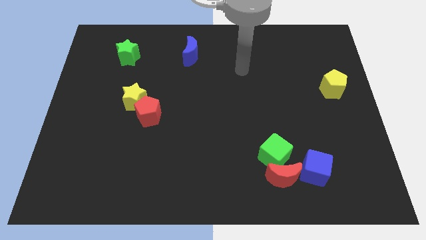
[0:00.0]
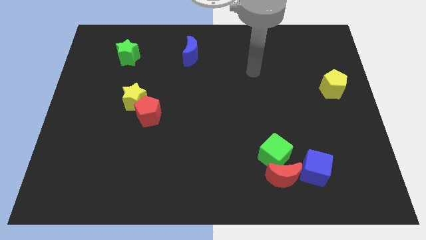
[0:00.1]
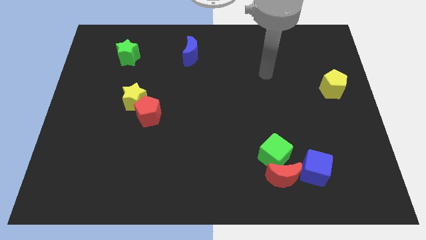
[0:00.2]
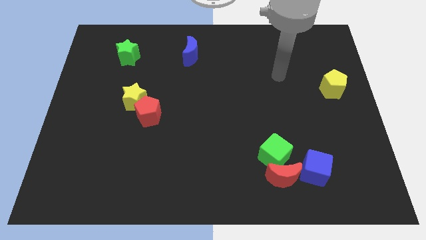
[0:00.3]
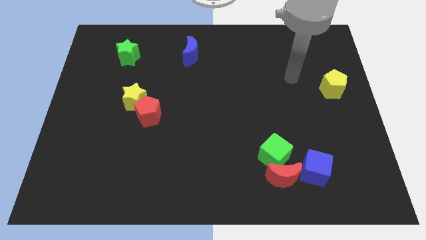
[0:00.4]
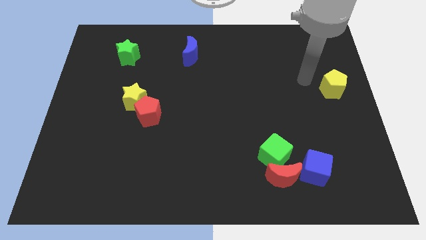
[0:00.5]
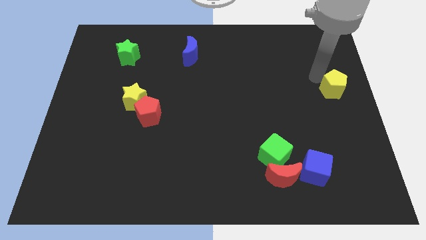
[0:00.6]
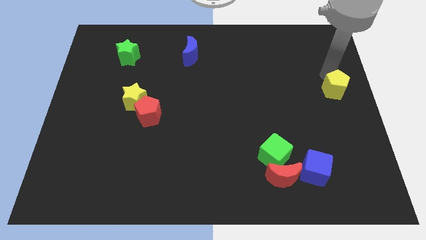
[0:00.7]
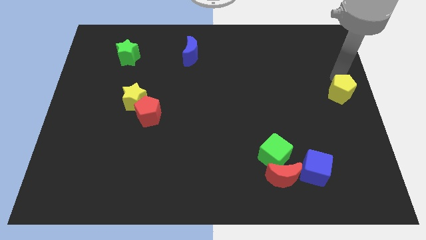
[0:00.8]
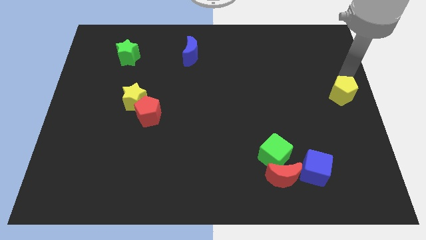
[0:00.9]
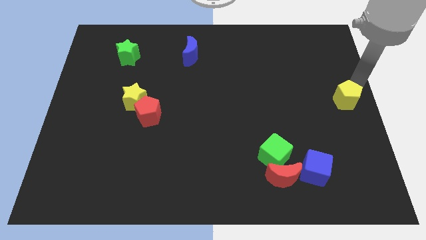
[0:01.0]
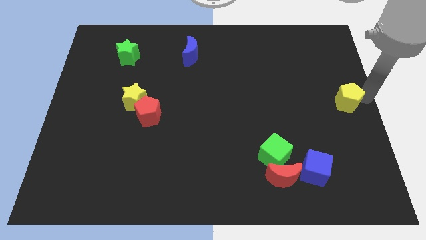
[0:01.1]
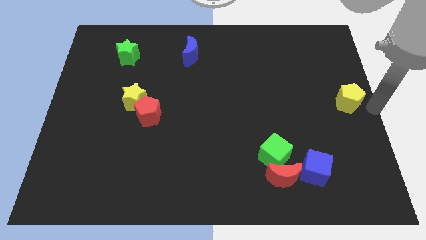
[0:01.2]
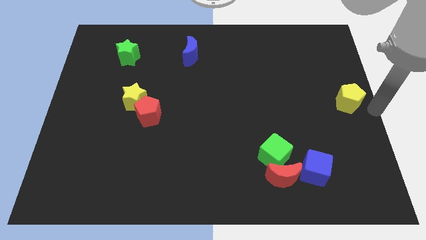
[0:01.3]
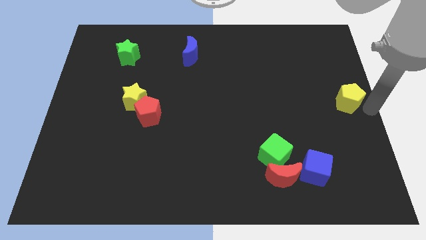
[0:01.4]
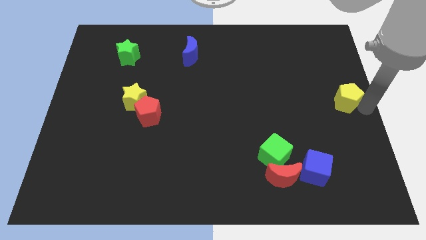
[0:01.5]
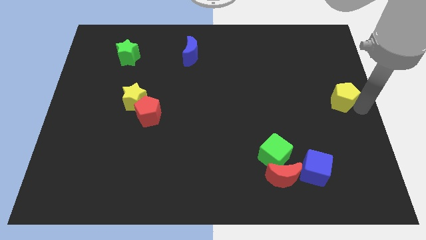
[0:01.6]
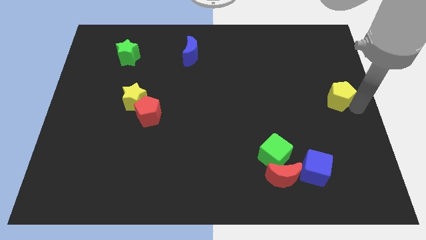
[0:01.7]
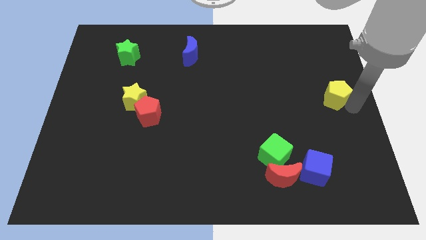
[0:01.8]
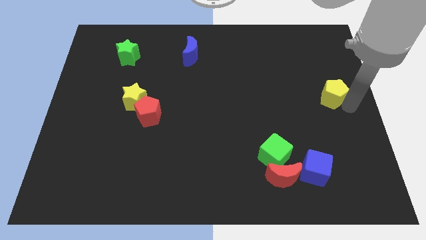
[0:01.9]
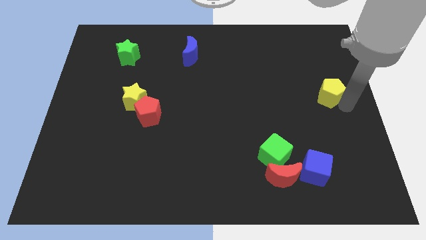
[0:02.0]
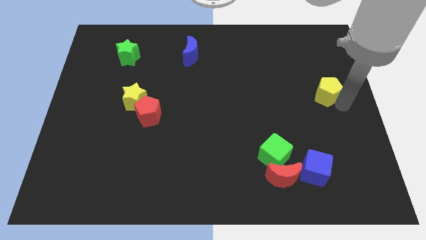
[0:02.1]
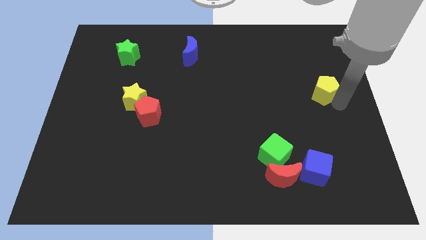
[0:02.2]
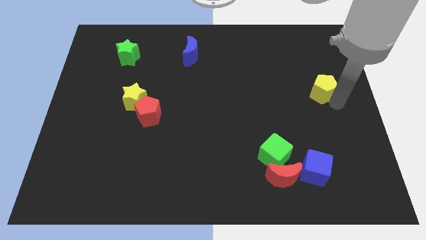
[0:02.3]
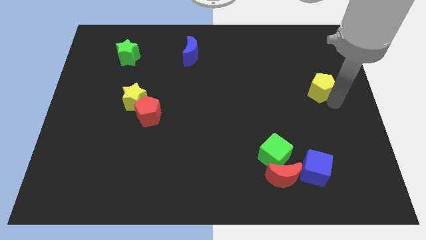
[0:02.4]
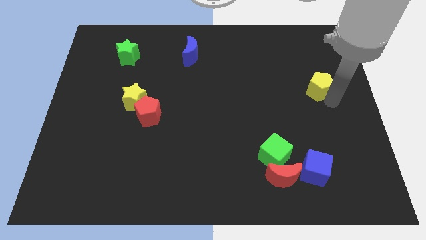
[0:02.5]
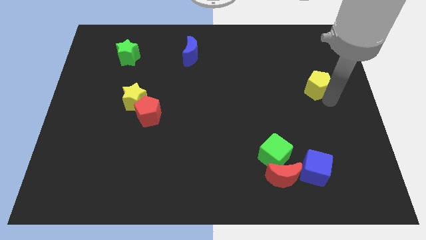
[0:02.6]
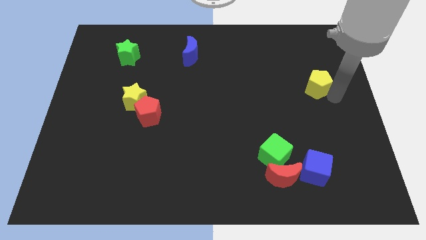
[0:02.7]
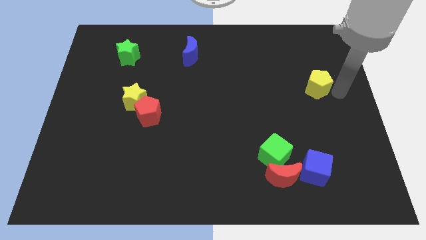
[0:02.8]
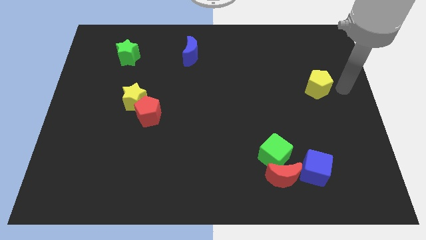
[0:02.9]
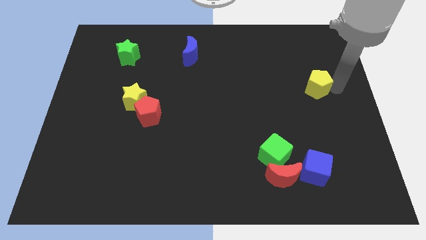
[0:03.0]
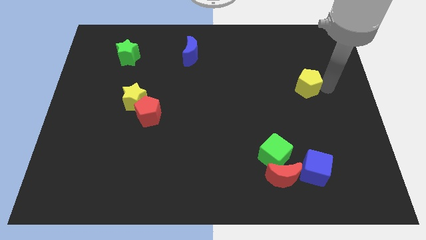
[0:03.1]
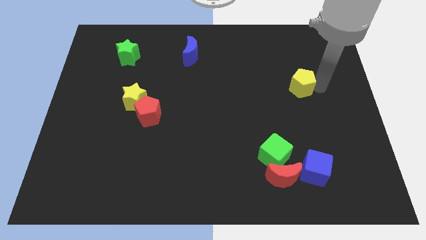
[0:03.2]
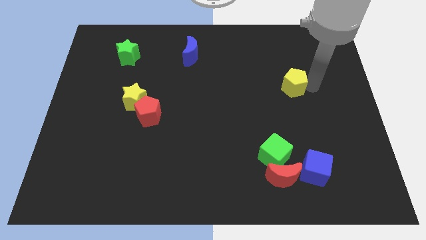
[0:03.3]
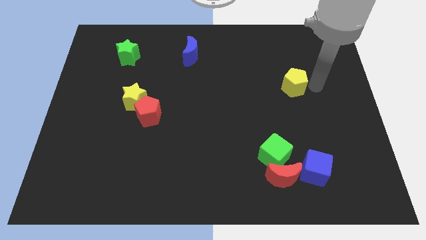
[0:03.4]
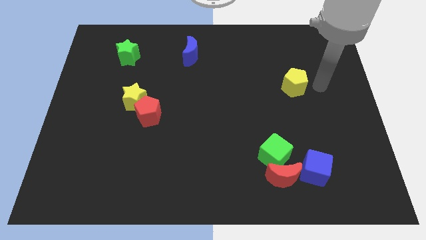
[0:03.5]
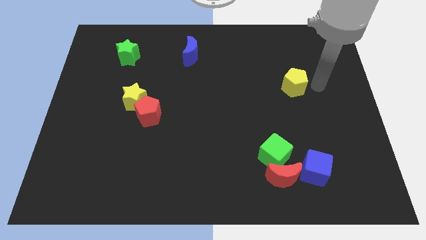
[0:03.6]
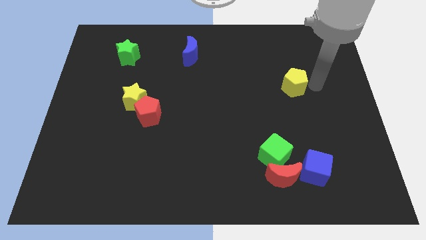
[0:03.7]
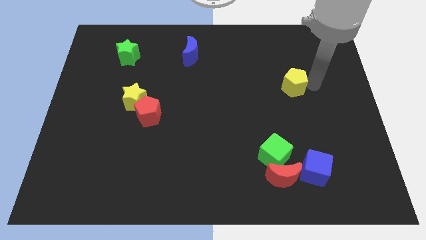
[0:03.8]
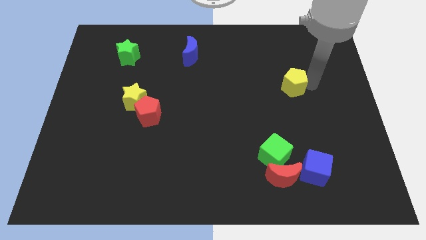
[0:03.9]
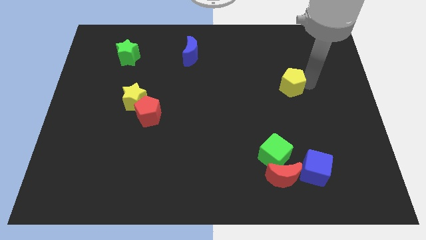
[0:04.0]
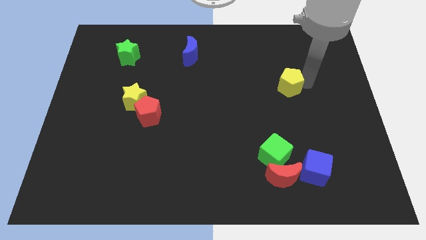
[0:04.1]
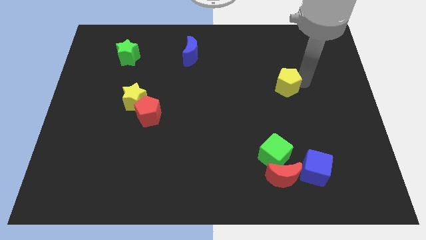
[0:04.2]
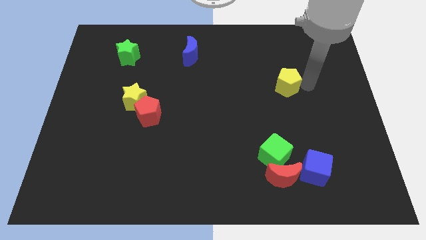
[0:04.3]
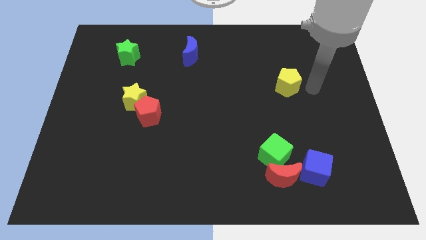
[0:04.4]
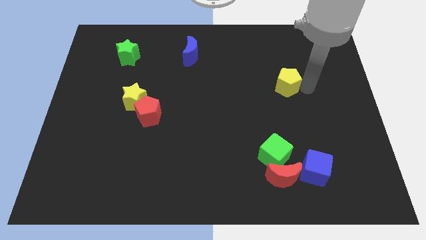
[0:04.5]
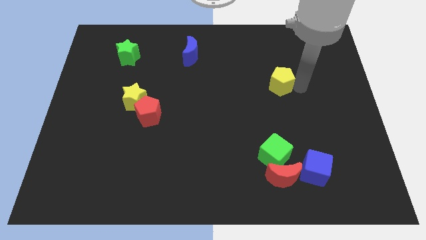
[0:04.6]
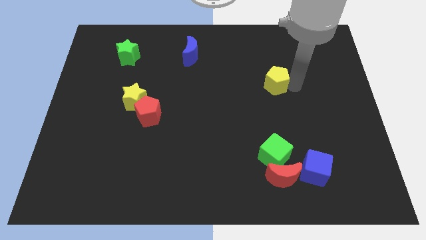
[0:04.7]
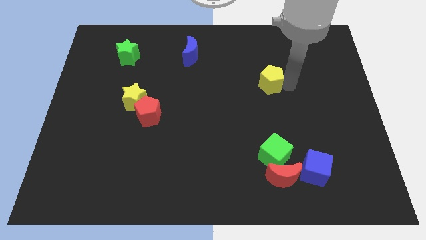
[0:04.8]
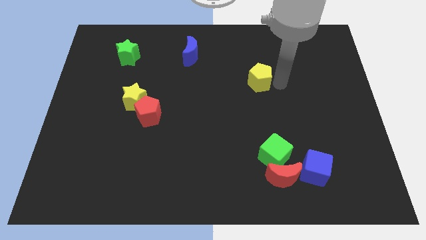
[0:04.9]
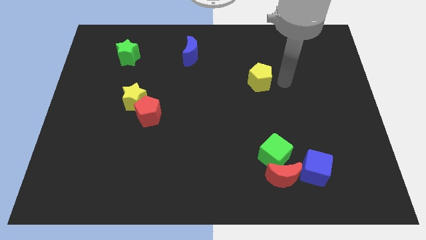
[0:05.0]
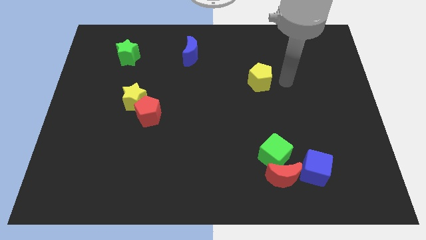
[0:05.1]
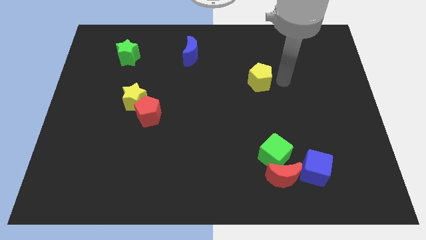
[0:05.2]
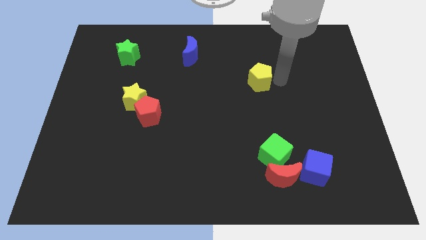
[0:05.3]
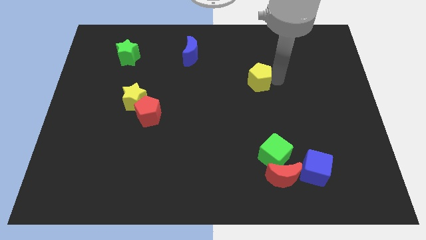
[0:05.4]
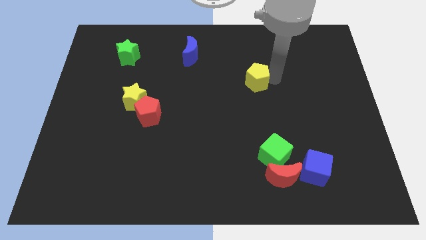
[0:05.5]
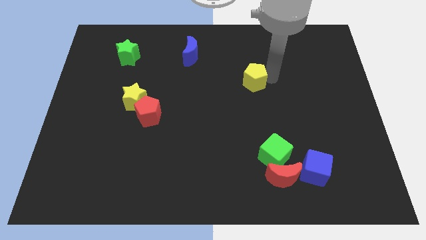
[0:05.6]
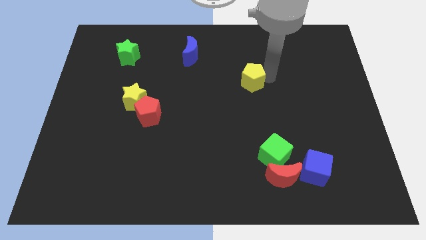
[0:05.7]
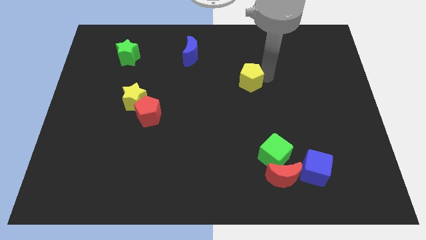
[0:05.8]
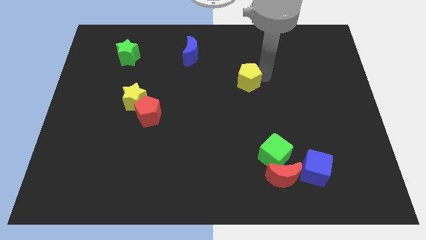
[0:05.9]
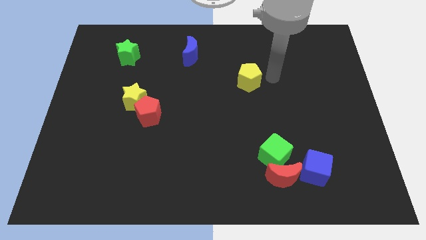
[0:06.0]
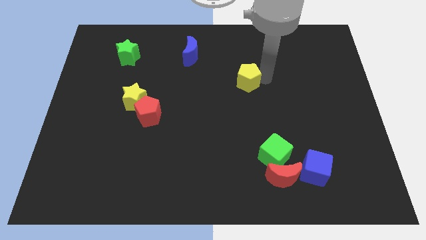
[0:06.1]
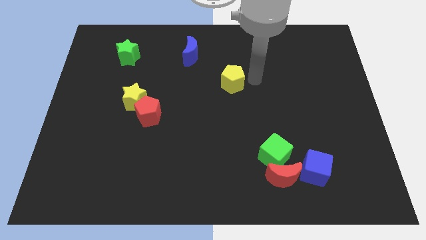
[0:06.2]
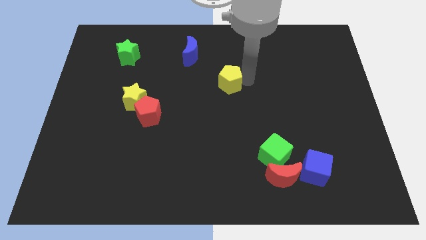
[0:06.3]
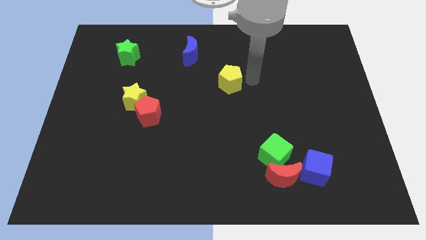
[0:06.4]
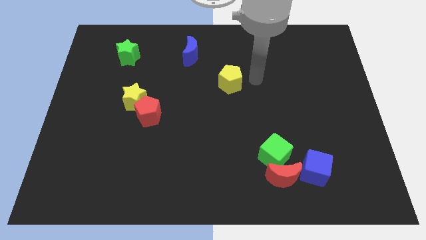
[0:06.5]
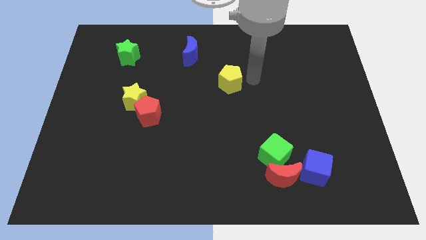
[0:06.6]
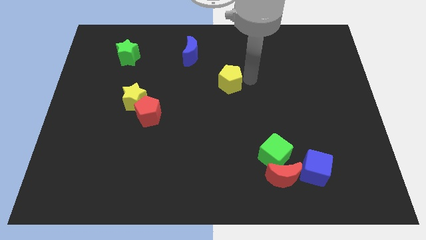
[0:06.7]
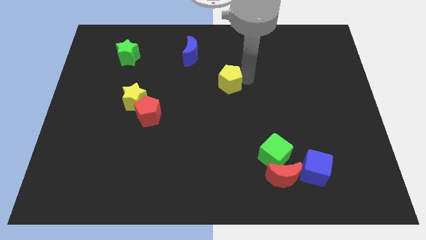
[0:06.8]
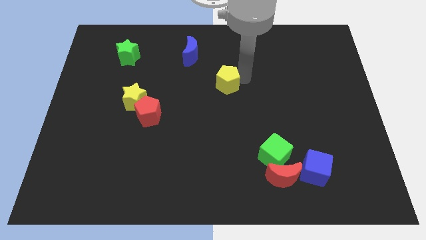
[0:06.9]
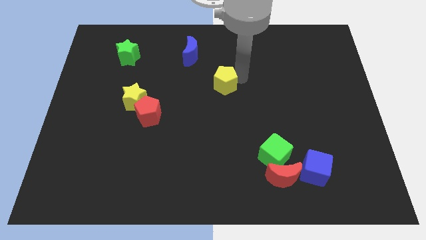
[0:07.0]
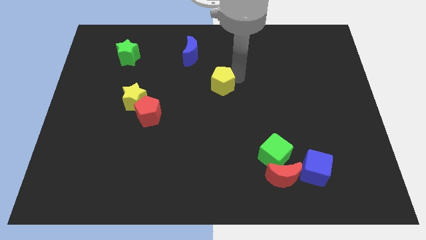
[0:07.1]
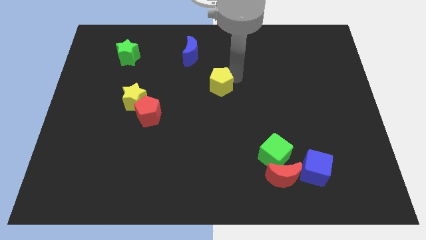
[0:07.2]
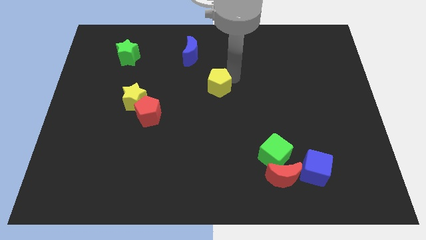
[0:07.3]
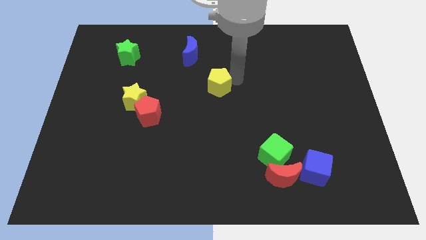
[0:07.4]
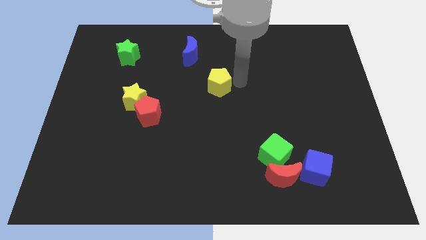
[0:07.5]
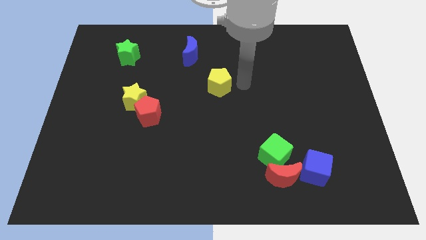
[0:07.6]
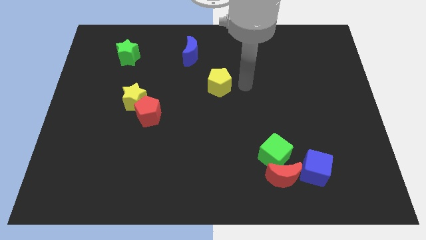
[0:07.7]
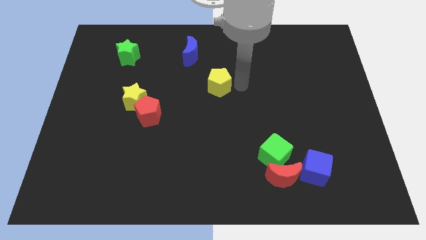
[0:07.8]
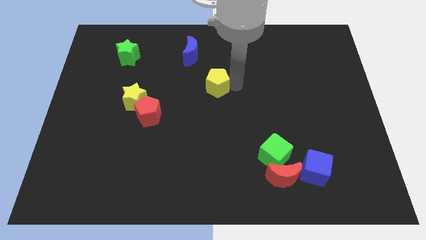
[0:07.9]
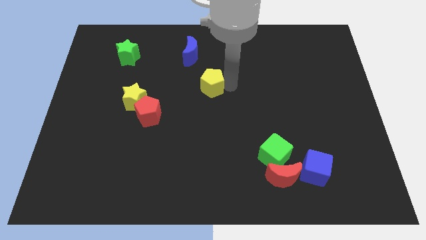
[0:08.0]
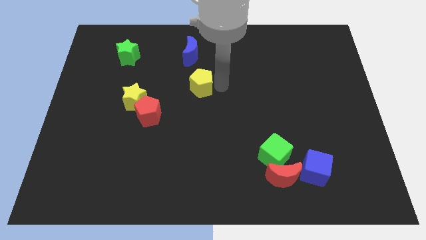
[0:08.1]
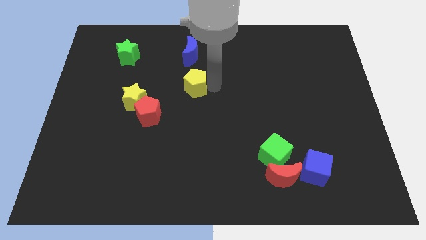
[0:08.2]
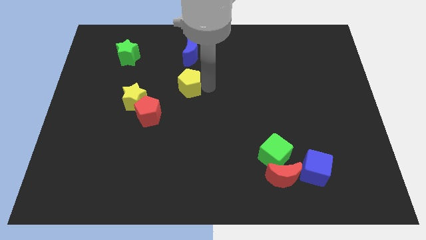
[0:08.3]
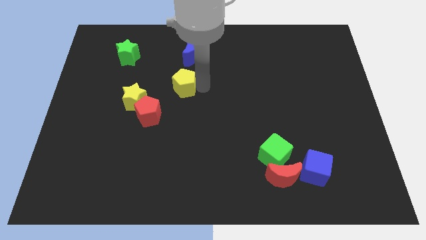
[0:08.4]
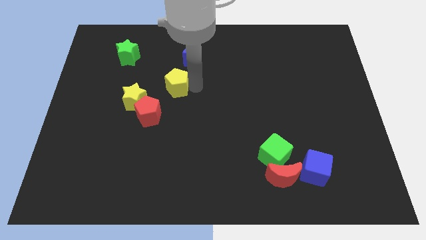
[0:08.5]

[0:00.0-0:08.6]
put the yellow pentagon to the top right side of the yellow star
